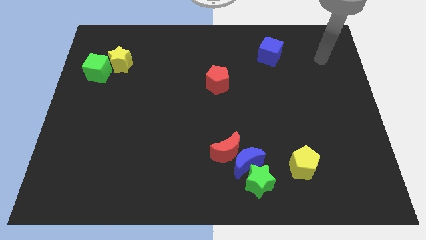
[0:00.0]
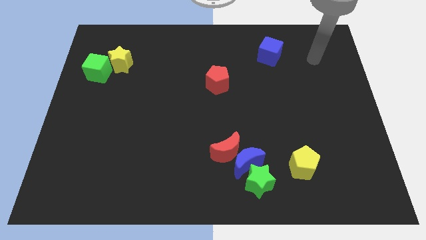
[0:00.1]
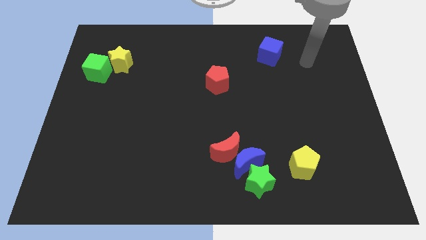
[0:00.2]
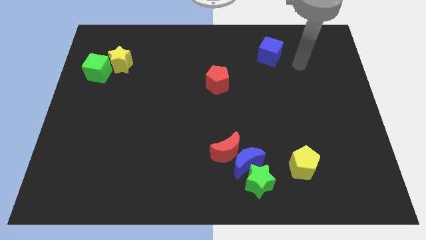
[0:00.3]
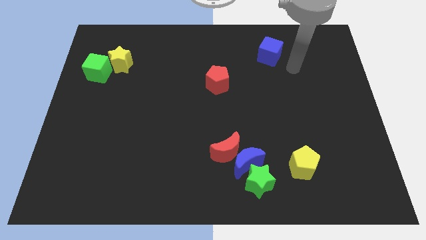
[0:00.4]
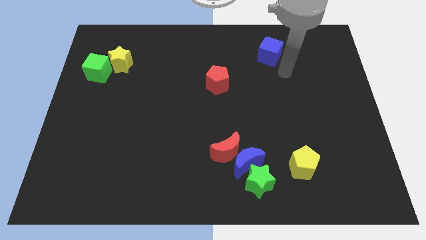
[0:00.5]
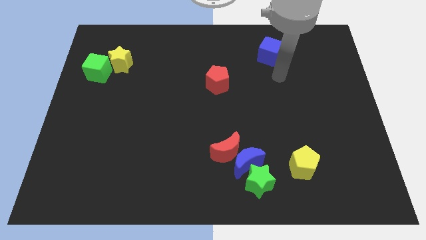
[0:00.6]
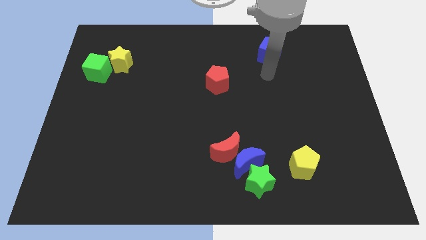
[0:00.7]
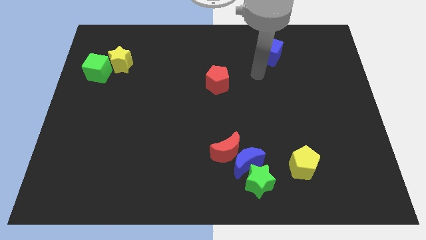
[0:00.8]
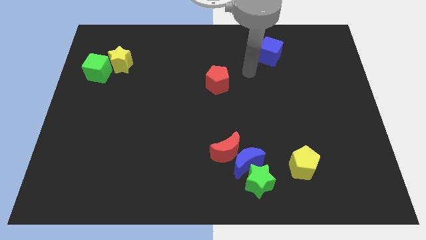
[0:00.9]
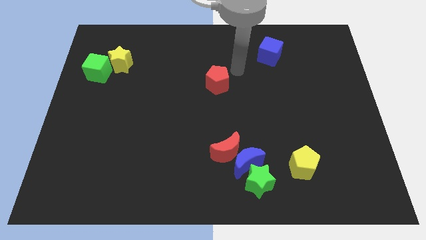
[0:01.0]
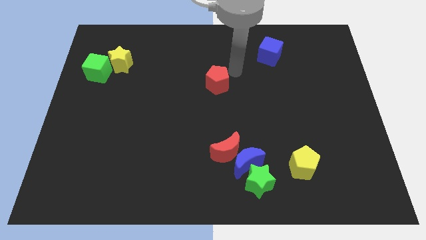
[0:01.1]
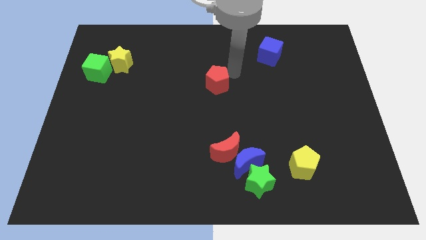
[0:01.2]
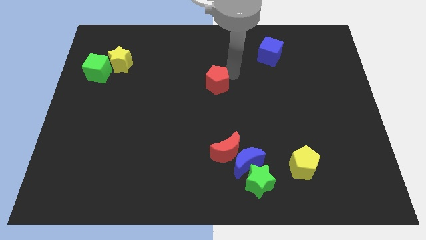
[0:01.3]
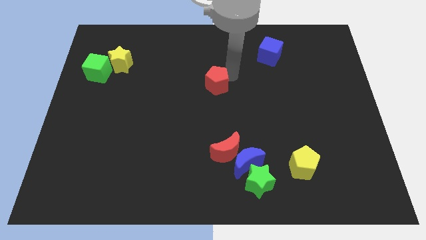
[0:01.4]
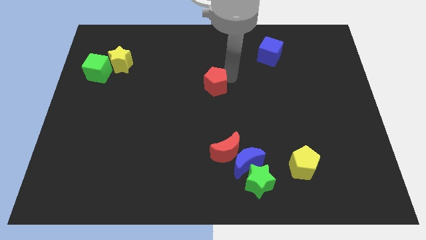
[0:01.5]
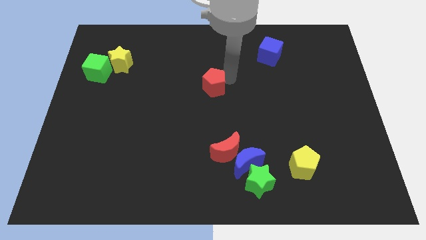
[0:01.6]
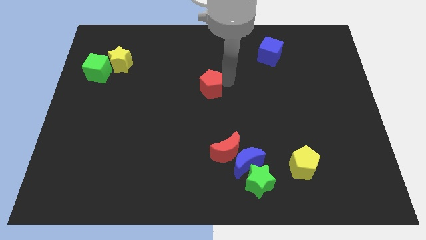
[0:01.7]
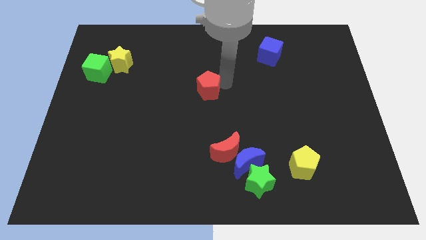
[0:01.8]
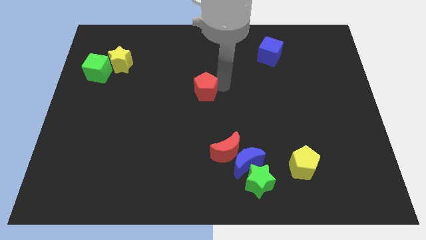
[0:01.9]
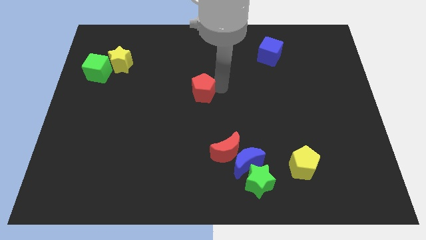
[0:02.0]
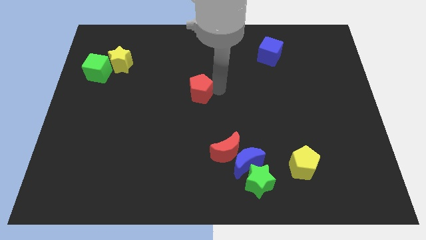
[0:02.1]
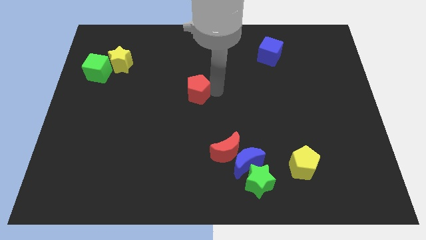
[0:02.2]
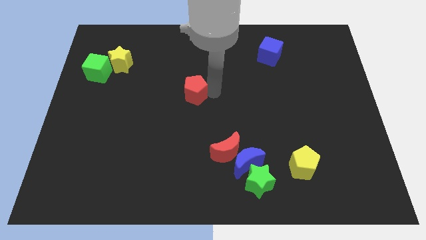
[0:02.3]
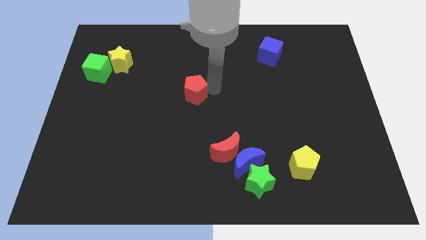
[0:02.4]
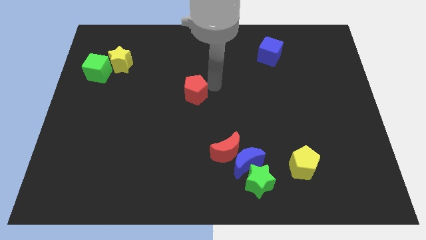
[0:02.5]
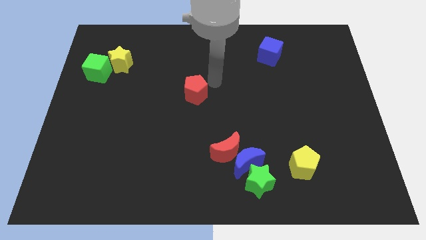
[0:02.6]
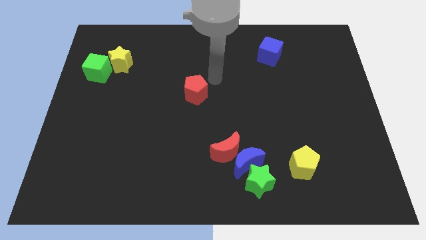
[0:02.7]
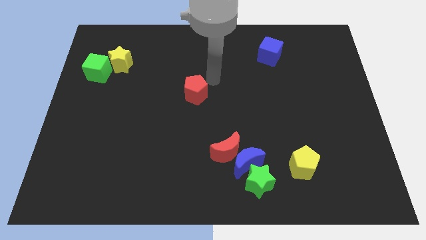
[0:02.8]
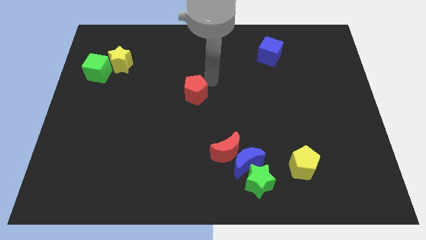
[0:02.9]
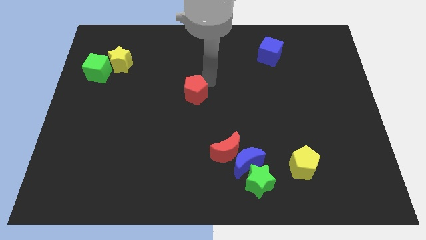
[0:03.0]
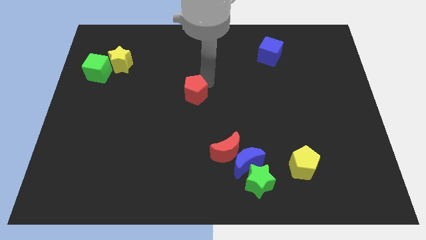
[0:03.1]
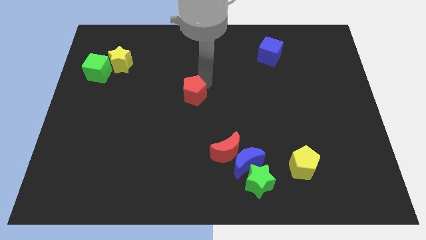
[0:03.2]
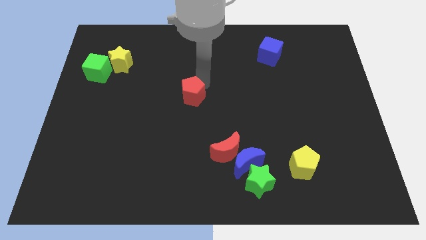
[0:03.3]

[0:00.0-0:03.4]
slide the red pentagon a little diagonally downwards and left

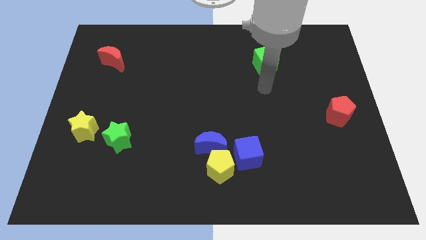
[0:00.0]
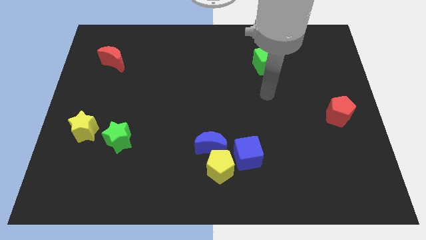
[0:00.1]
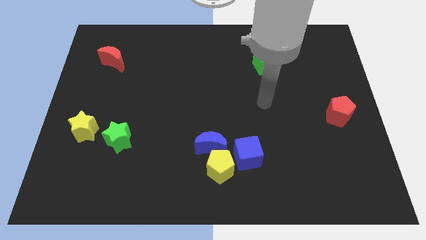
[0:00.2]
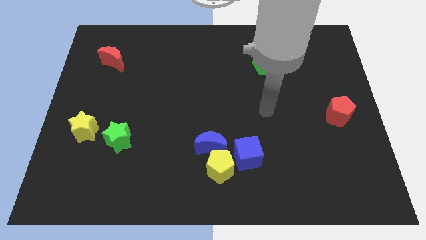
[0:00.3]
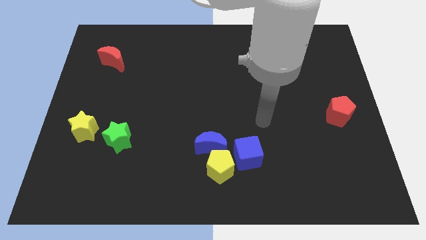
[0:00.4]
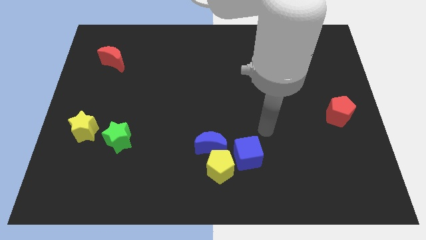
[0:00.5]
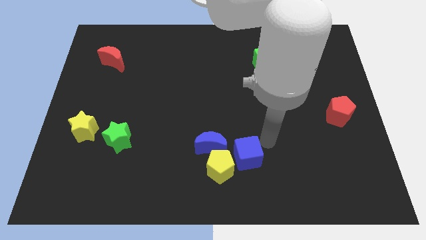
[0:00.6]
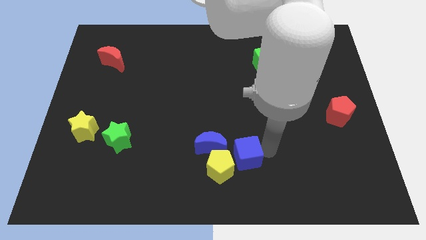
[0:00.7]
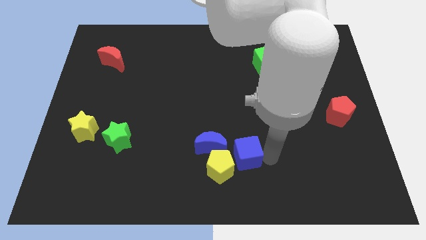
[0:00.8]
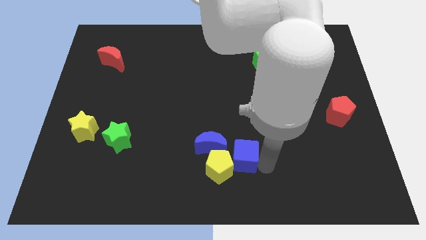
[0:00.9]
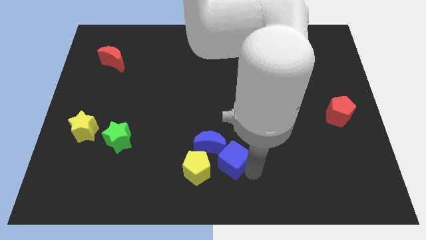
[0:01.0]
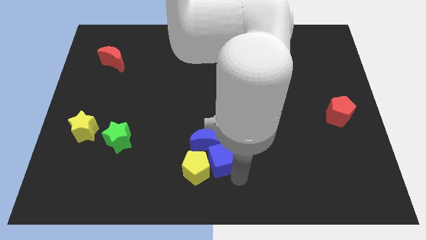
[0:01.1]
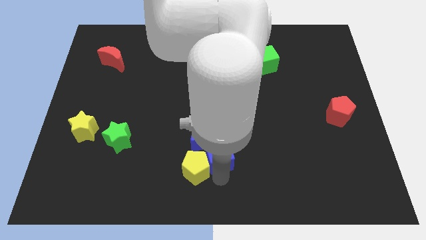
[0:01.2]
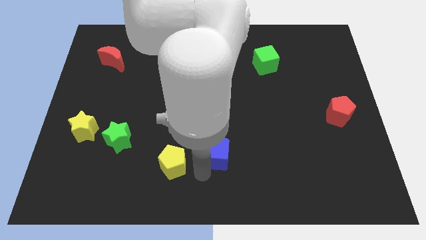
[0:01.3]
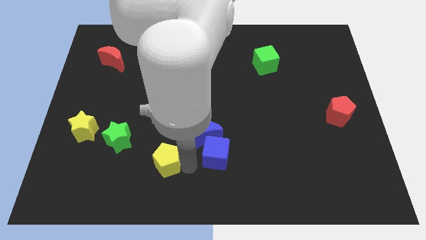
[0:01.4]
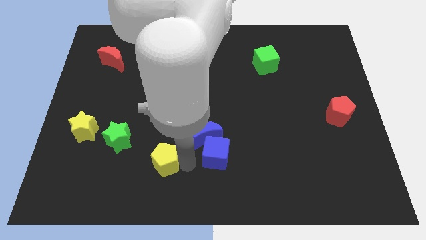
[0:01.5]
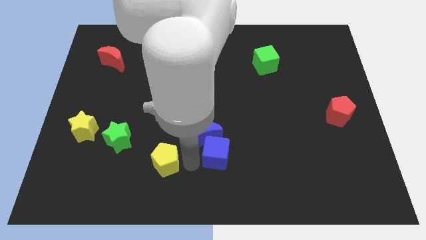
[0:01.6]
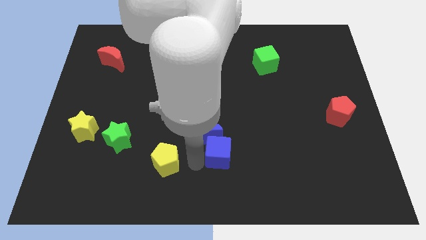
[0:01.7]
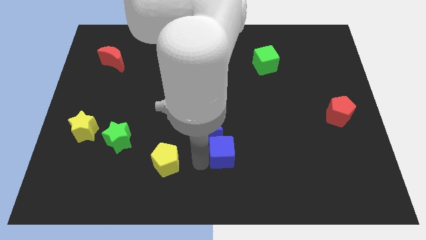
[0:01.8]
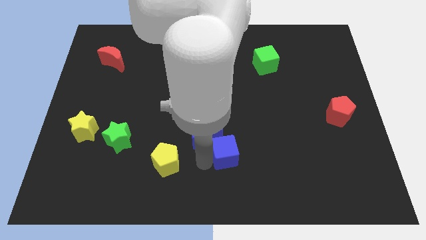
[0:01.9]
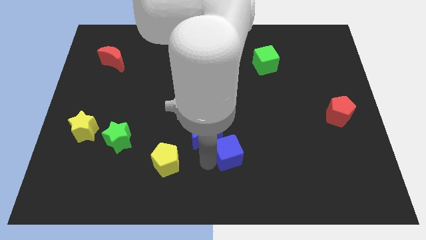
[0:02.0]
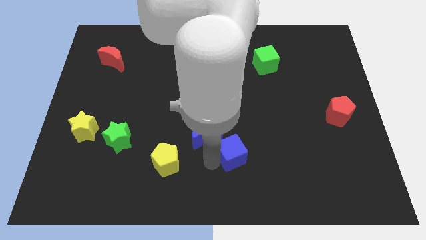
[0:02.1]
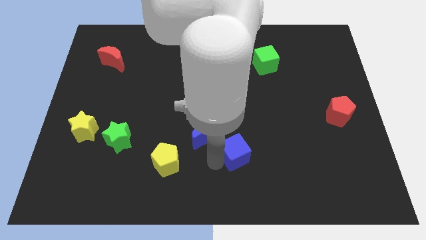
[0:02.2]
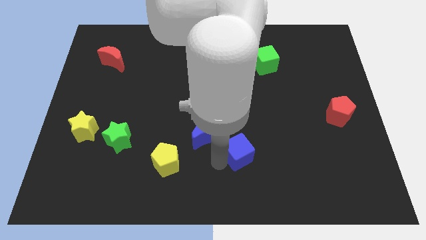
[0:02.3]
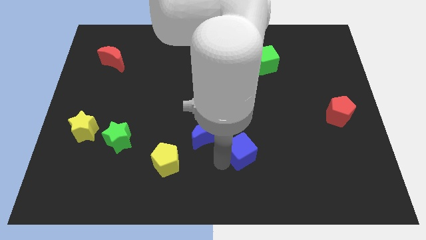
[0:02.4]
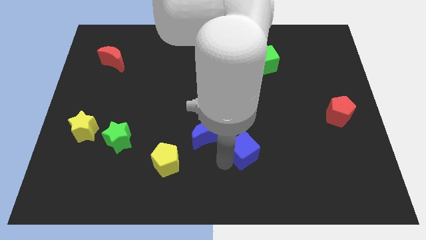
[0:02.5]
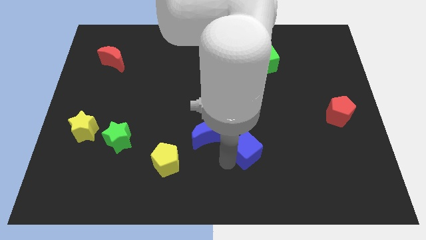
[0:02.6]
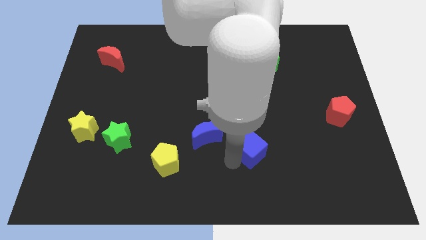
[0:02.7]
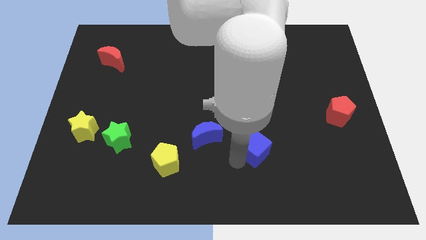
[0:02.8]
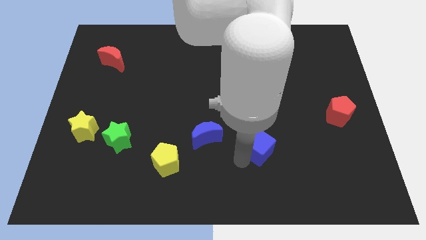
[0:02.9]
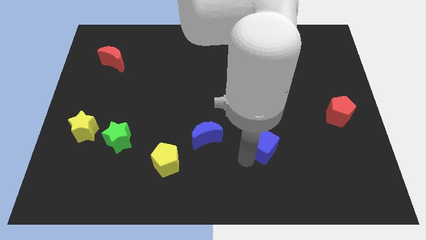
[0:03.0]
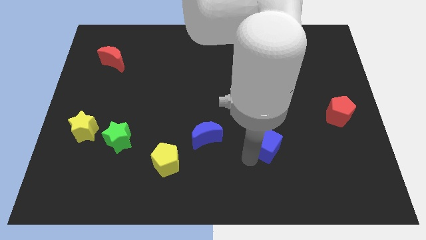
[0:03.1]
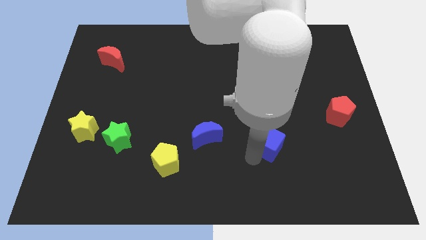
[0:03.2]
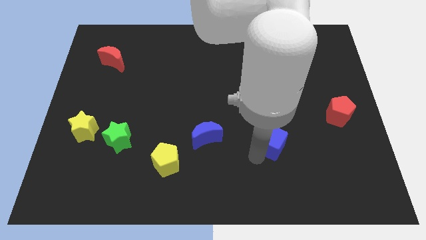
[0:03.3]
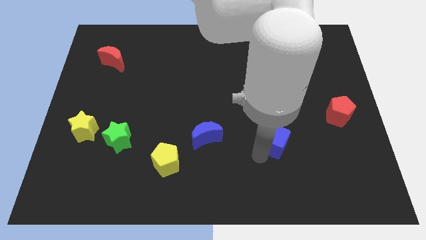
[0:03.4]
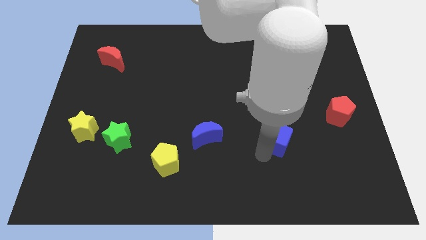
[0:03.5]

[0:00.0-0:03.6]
slightly slide the blue cube upwards and then to the right

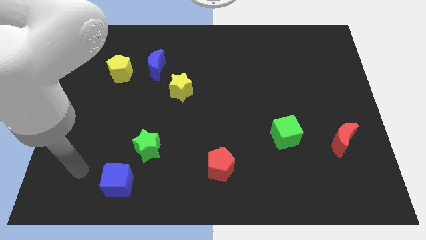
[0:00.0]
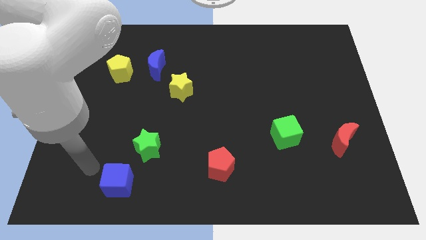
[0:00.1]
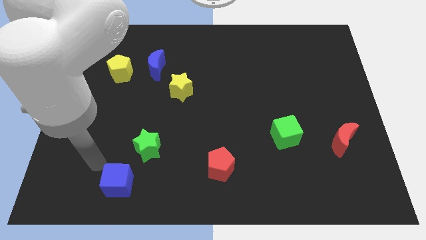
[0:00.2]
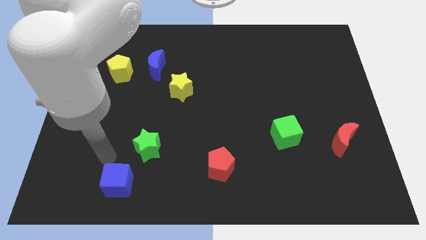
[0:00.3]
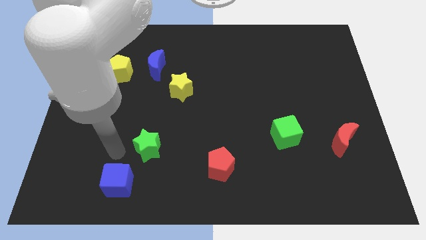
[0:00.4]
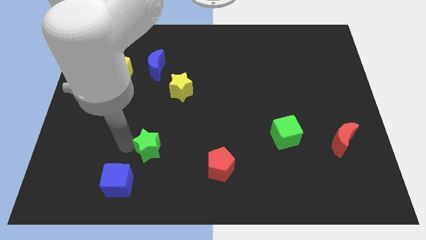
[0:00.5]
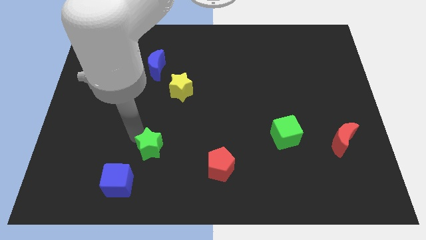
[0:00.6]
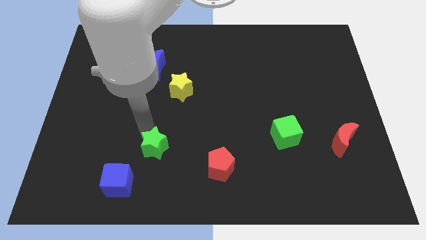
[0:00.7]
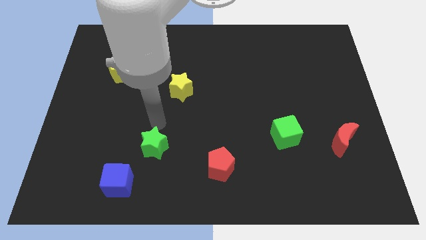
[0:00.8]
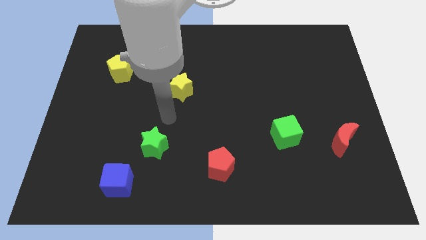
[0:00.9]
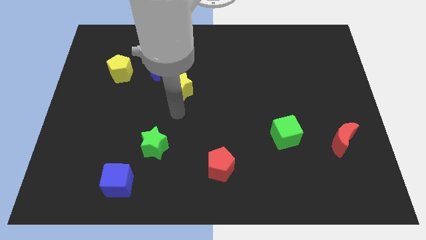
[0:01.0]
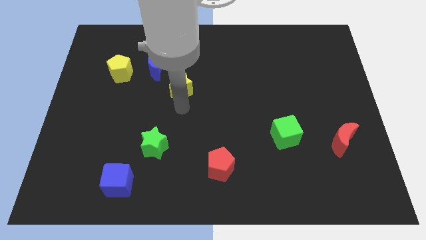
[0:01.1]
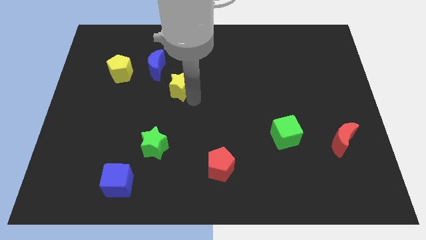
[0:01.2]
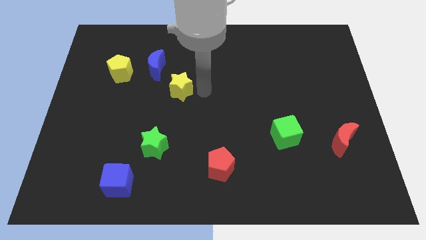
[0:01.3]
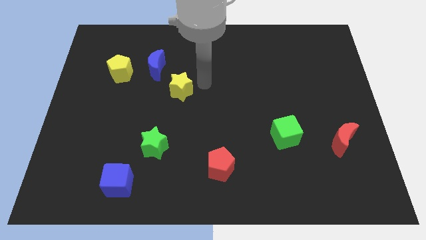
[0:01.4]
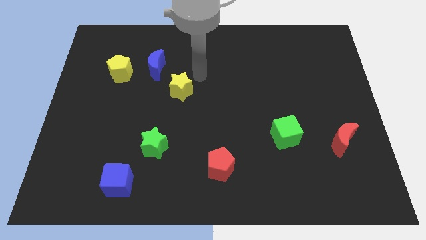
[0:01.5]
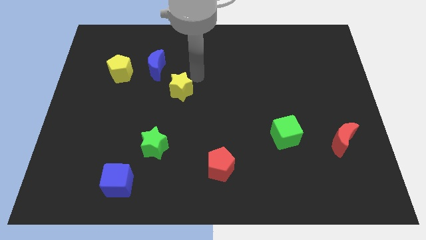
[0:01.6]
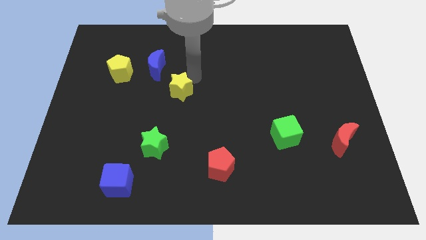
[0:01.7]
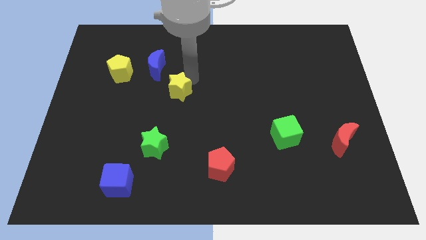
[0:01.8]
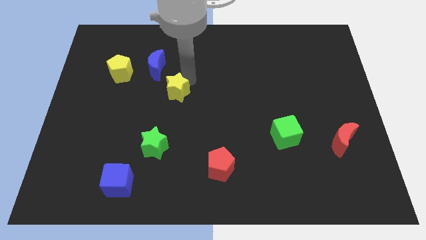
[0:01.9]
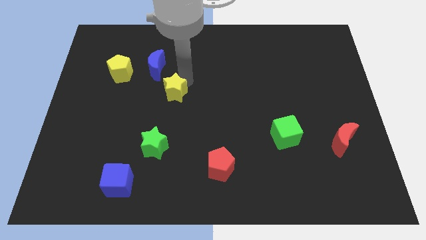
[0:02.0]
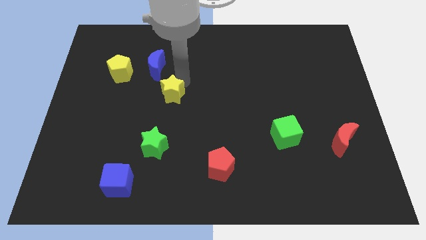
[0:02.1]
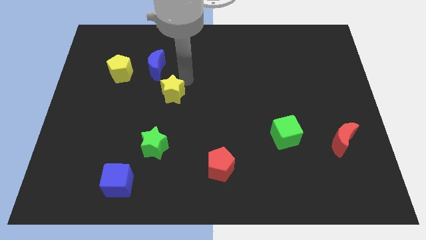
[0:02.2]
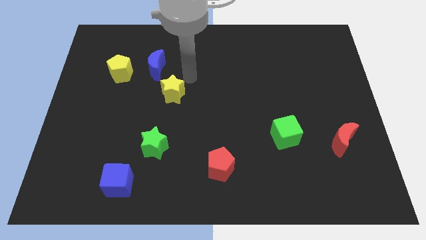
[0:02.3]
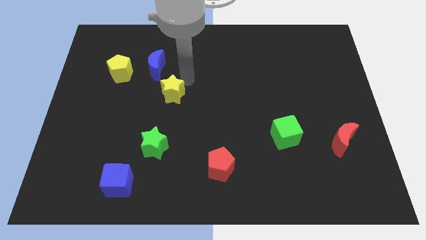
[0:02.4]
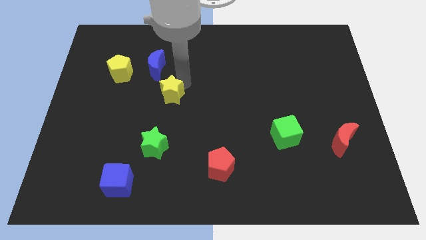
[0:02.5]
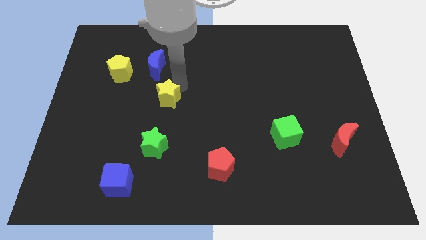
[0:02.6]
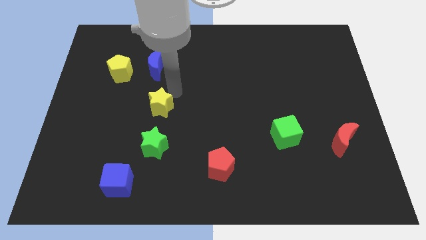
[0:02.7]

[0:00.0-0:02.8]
slightly slide the yellow star downwards and then to the left
